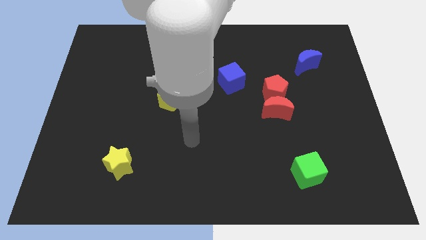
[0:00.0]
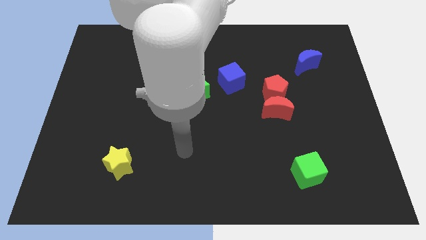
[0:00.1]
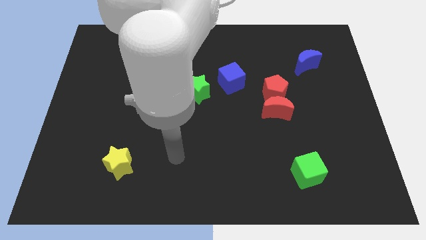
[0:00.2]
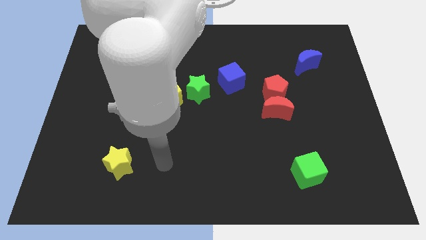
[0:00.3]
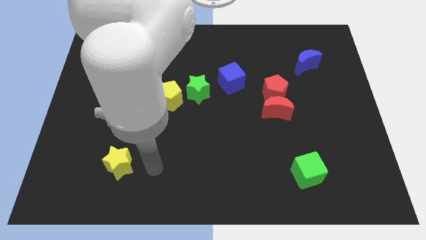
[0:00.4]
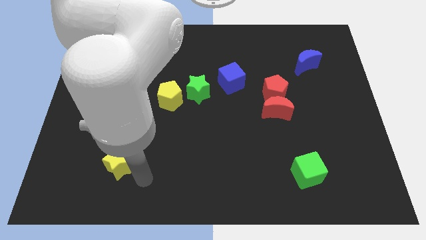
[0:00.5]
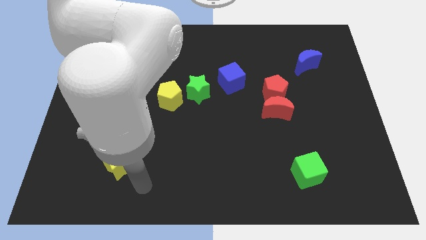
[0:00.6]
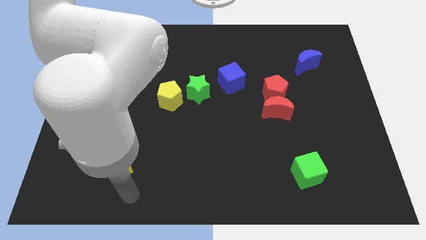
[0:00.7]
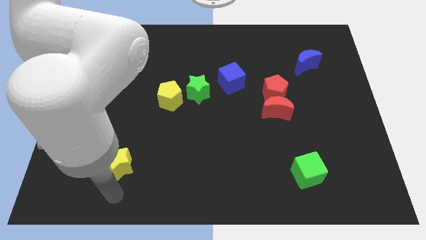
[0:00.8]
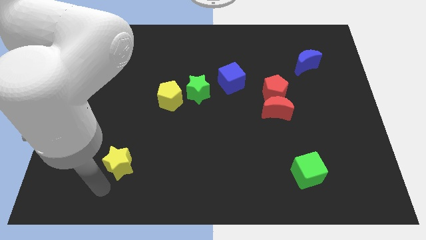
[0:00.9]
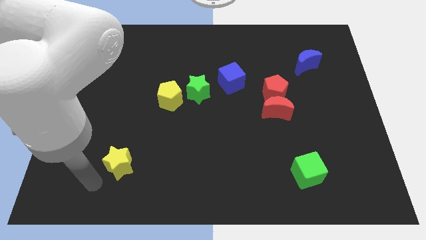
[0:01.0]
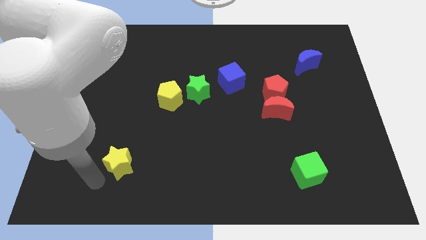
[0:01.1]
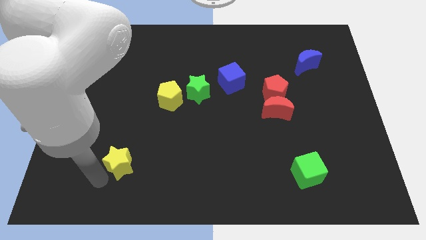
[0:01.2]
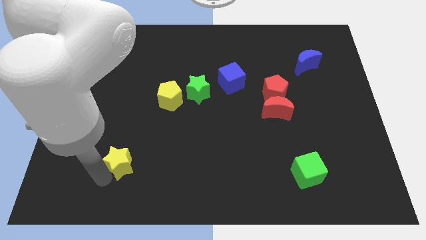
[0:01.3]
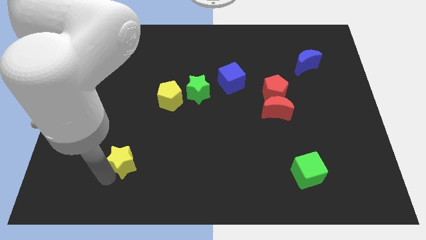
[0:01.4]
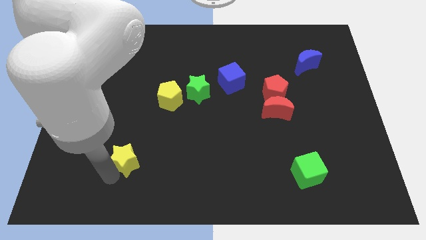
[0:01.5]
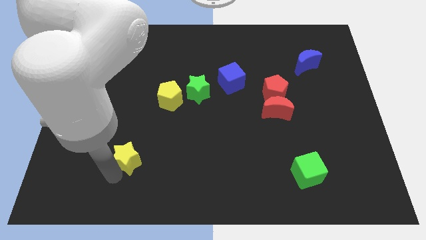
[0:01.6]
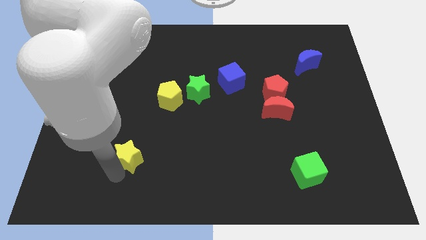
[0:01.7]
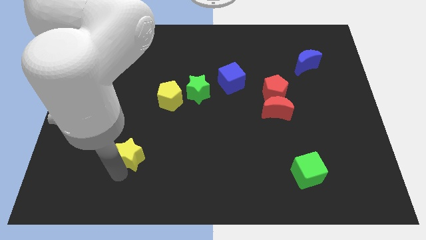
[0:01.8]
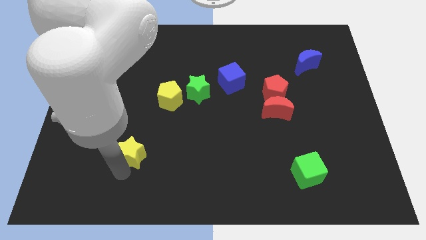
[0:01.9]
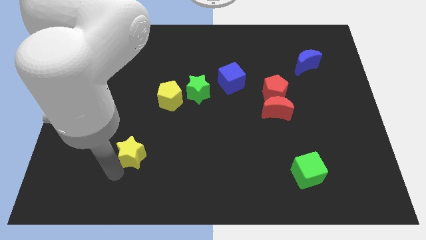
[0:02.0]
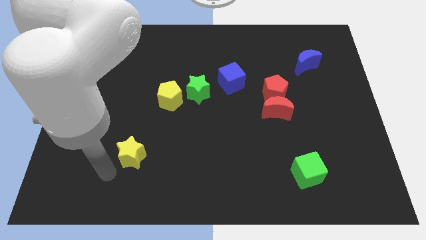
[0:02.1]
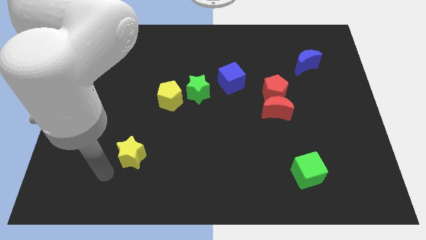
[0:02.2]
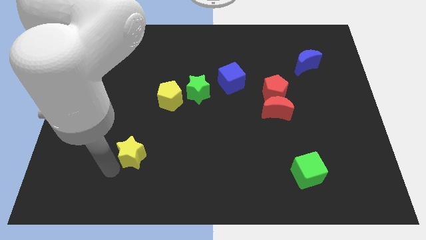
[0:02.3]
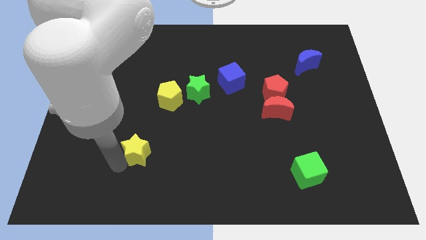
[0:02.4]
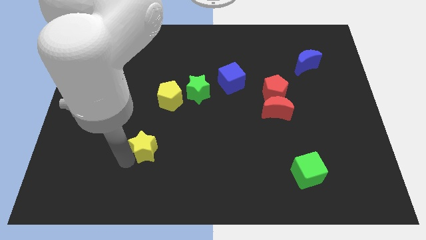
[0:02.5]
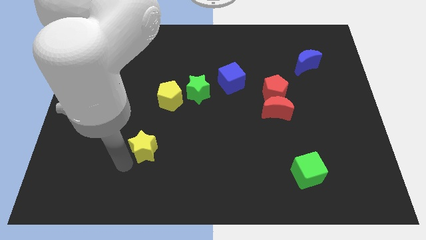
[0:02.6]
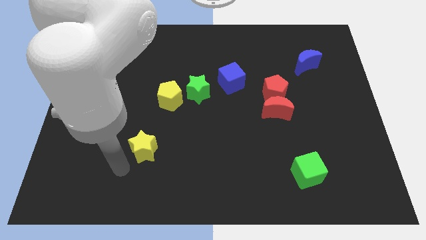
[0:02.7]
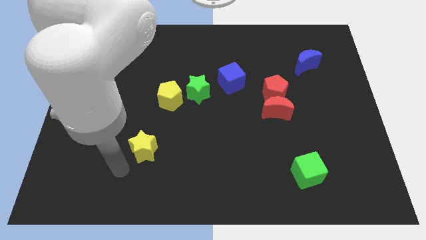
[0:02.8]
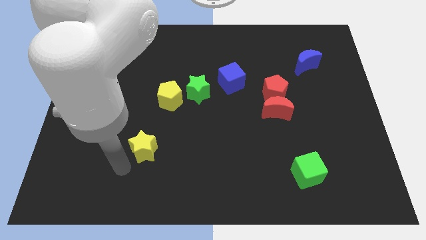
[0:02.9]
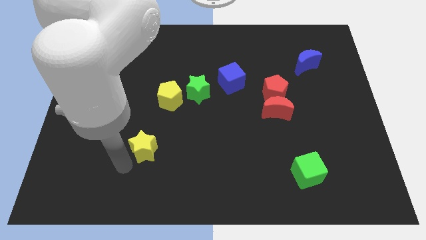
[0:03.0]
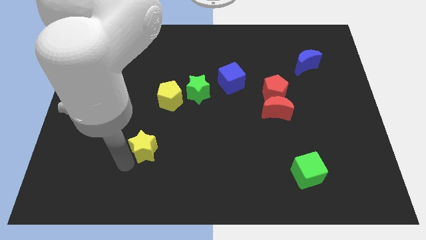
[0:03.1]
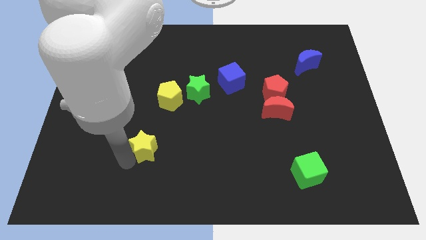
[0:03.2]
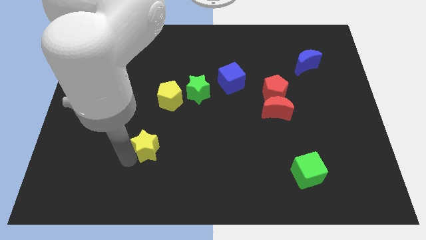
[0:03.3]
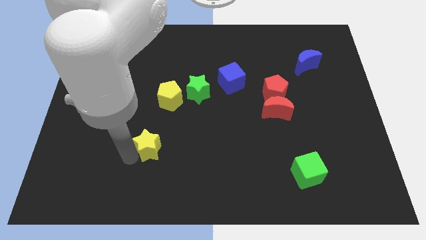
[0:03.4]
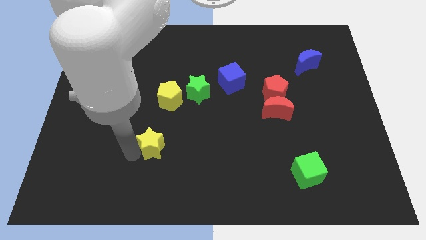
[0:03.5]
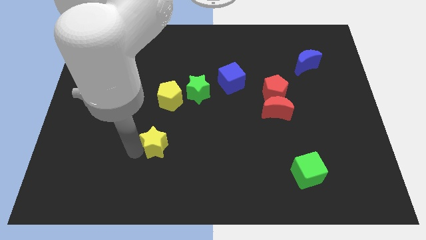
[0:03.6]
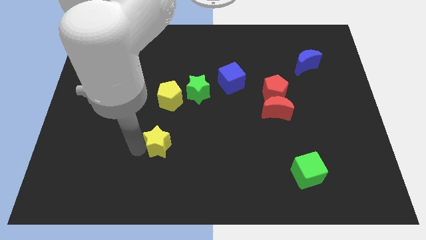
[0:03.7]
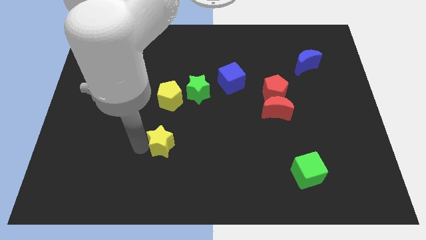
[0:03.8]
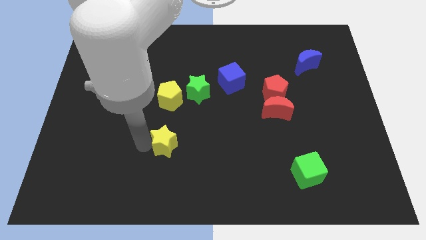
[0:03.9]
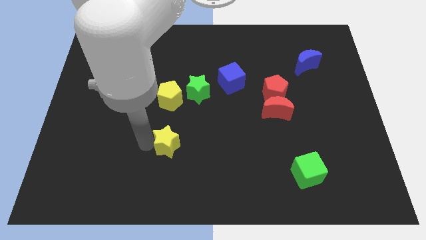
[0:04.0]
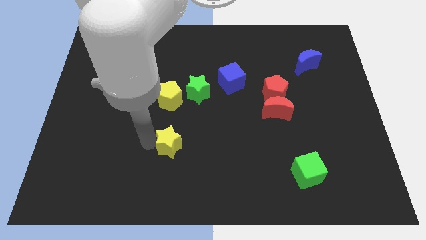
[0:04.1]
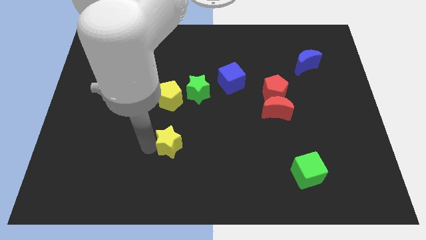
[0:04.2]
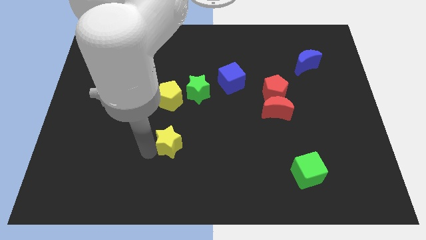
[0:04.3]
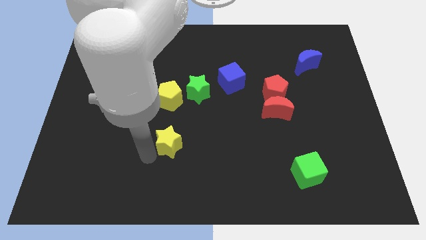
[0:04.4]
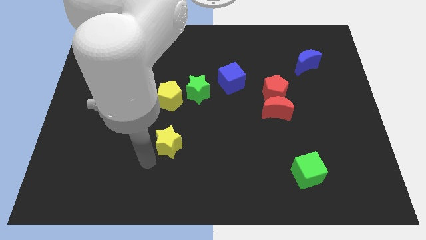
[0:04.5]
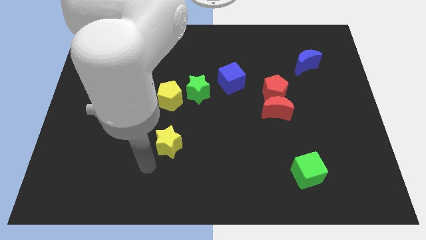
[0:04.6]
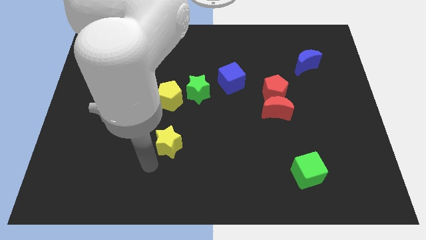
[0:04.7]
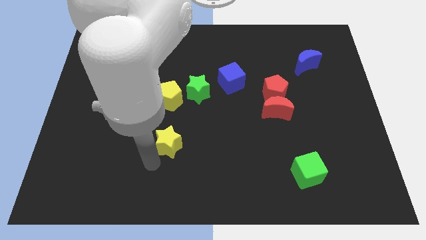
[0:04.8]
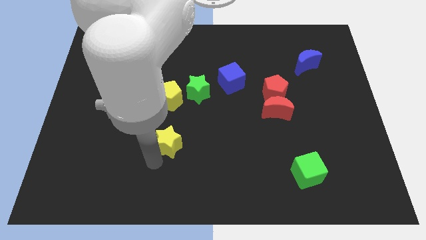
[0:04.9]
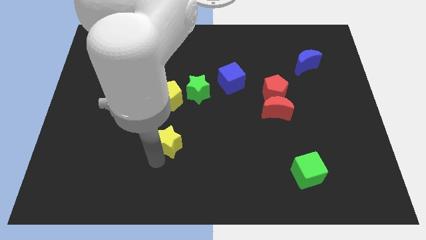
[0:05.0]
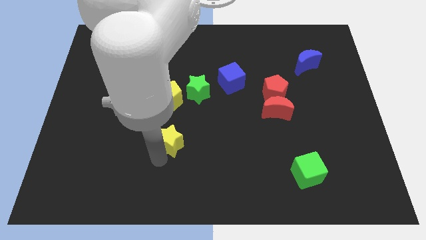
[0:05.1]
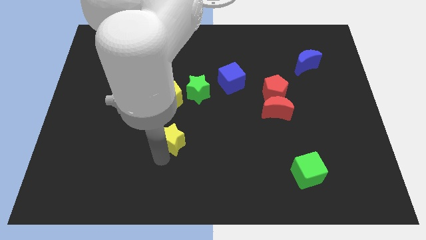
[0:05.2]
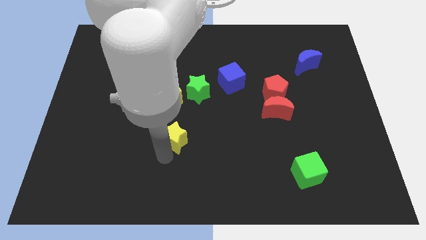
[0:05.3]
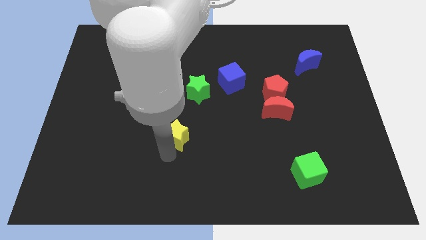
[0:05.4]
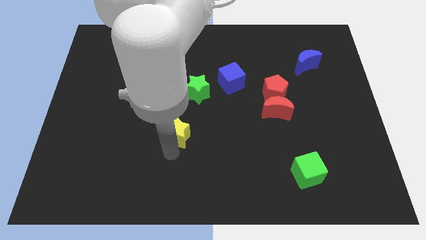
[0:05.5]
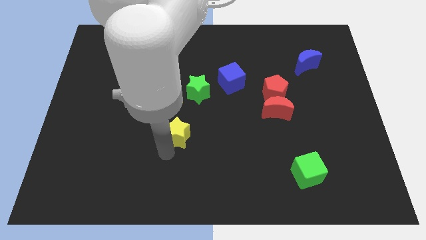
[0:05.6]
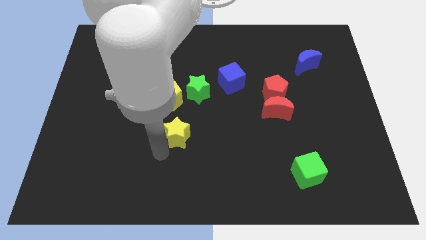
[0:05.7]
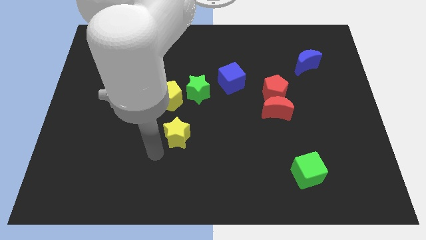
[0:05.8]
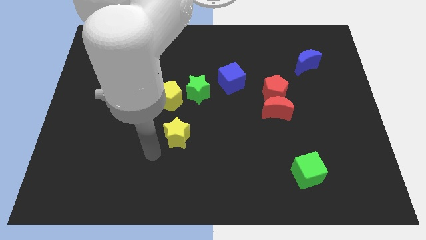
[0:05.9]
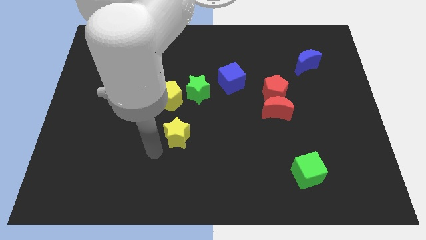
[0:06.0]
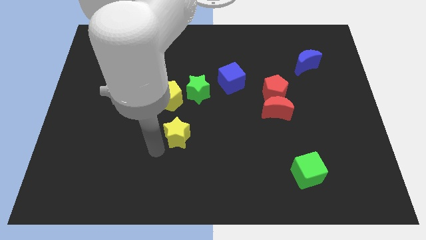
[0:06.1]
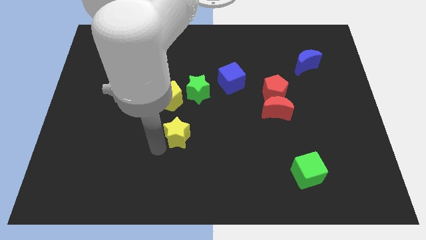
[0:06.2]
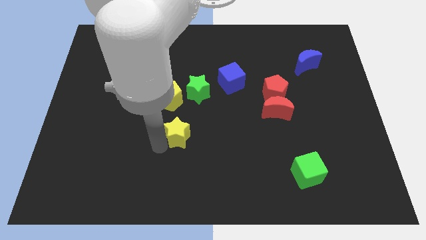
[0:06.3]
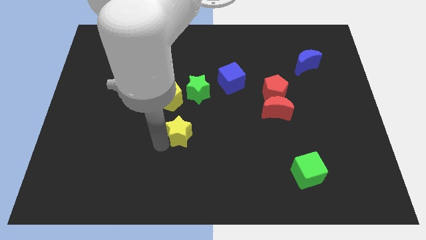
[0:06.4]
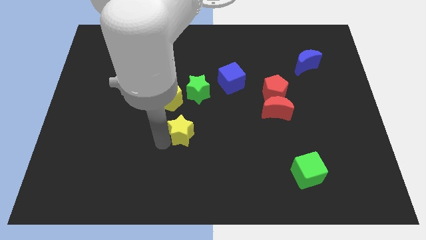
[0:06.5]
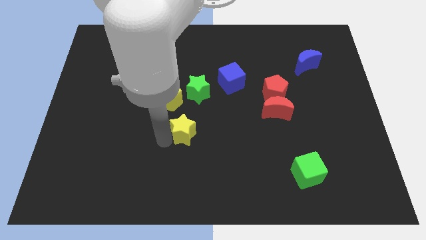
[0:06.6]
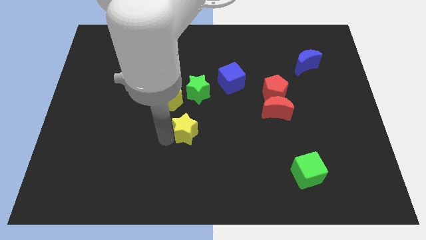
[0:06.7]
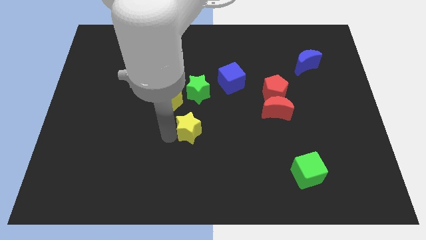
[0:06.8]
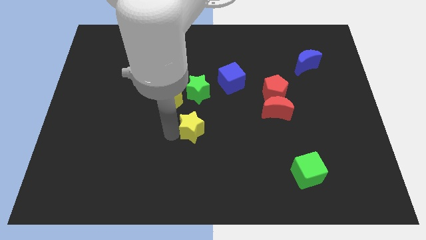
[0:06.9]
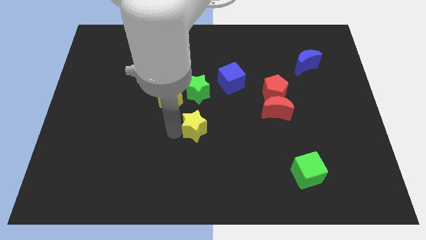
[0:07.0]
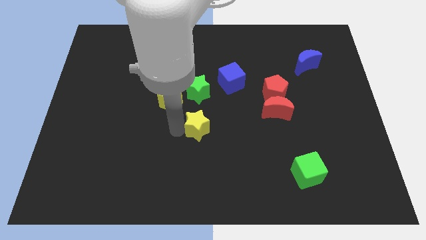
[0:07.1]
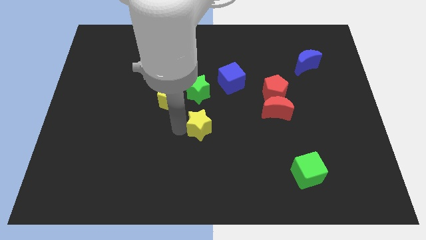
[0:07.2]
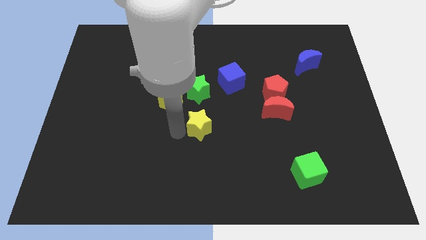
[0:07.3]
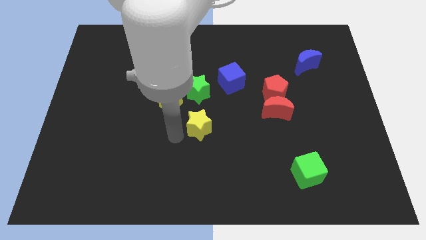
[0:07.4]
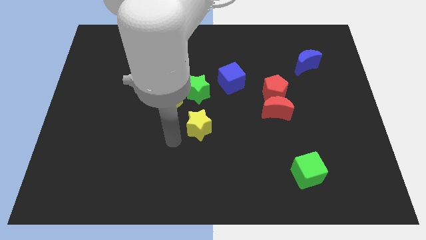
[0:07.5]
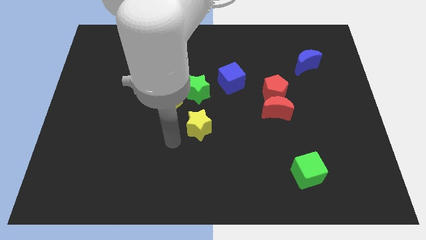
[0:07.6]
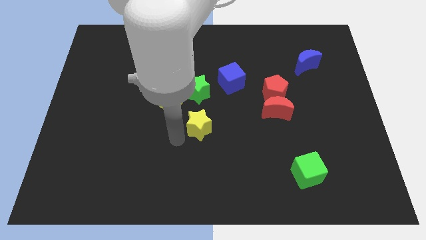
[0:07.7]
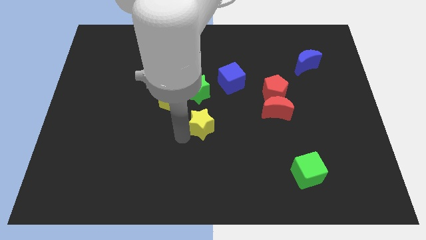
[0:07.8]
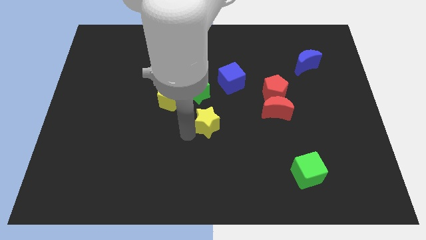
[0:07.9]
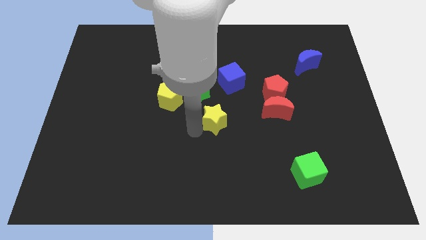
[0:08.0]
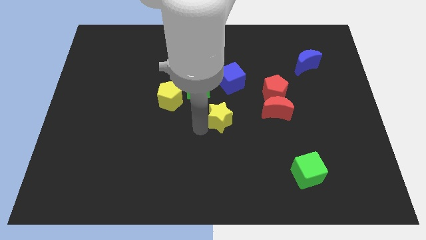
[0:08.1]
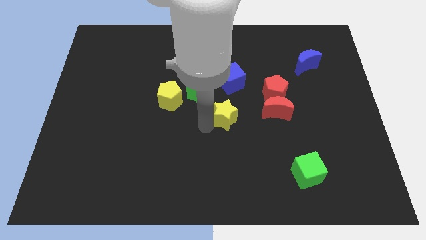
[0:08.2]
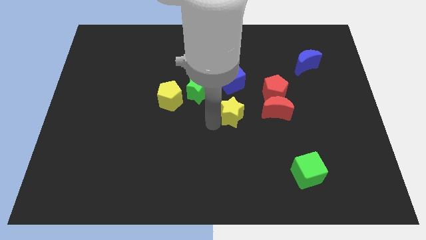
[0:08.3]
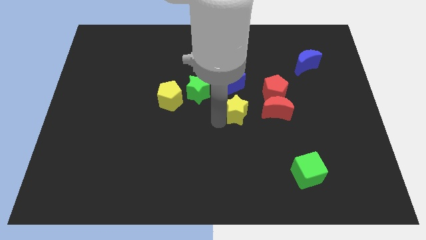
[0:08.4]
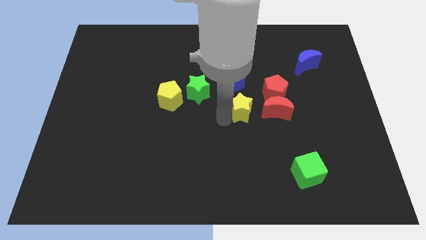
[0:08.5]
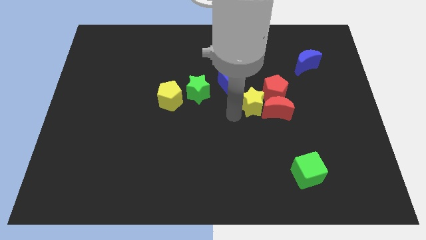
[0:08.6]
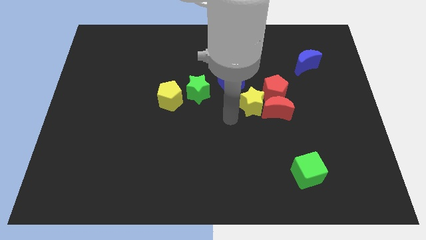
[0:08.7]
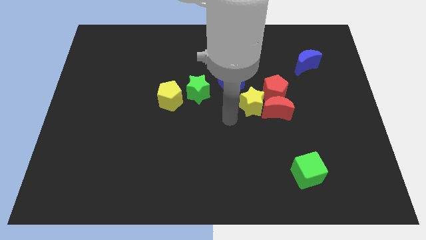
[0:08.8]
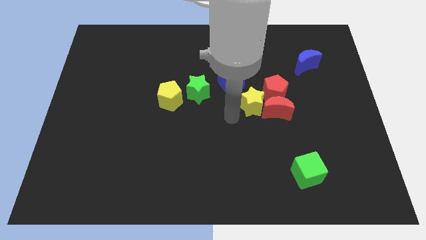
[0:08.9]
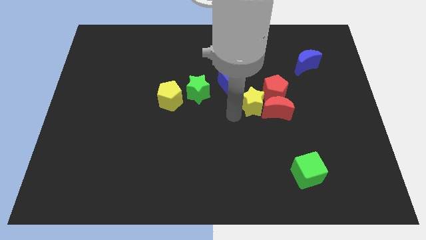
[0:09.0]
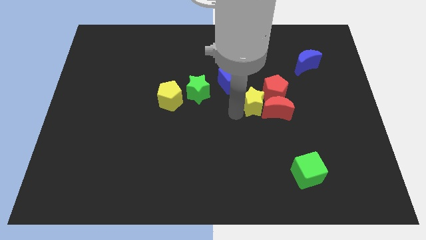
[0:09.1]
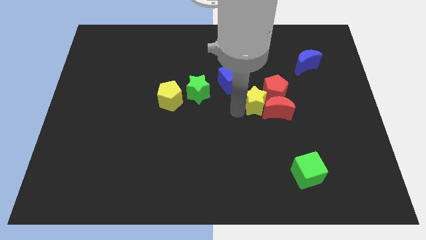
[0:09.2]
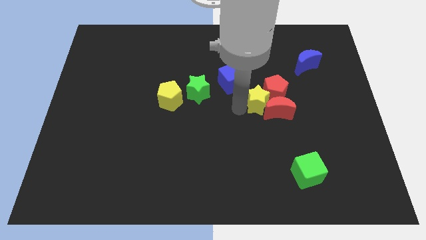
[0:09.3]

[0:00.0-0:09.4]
push the yellow star next to the red pentagon
